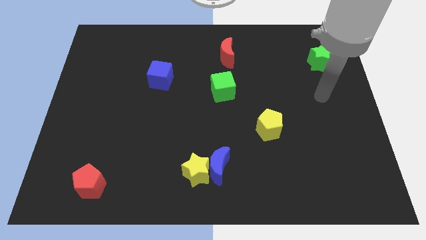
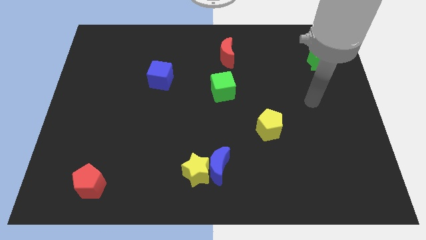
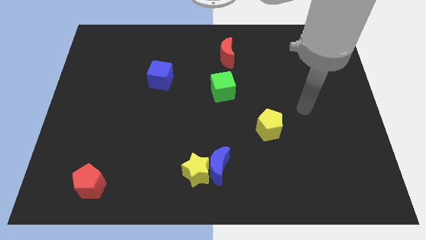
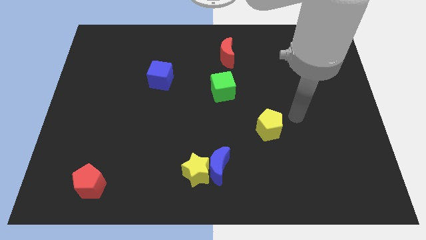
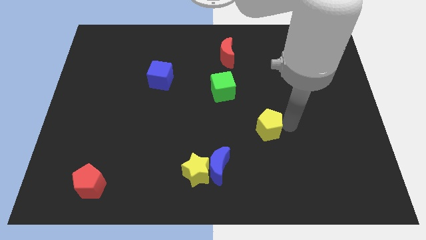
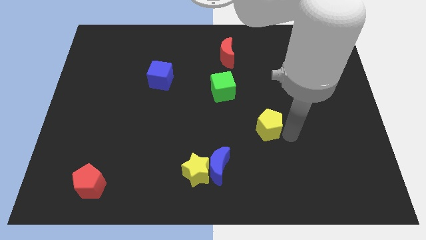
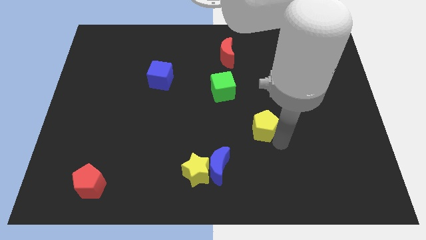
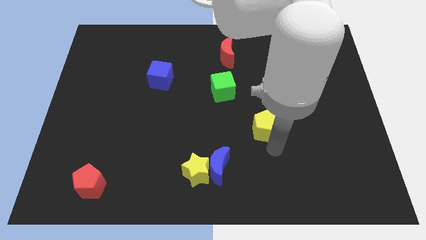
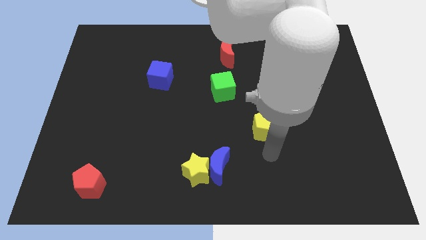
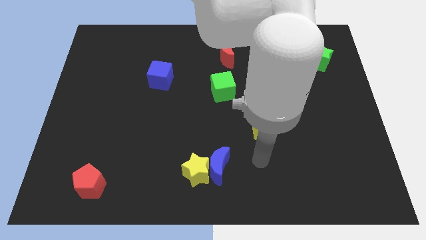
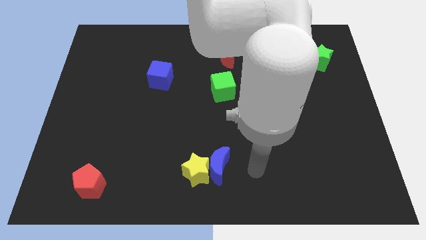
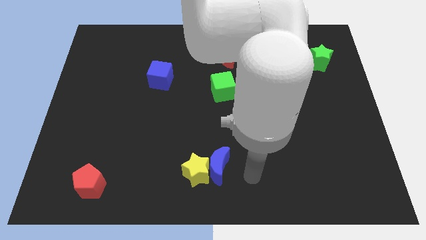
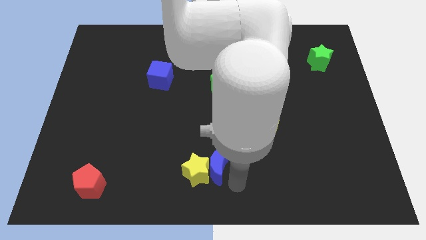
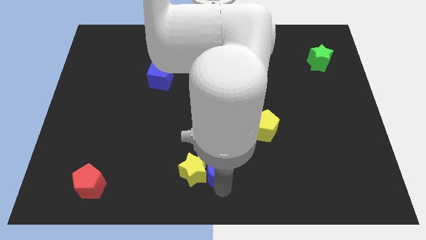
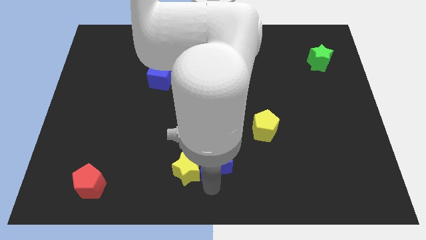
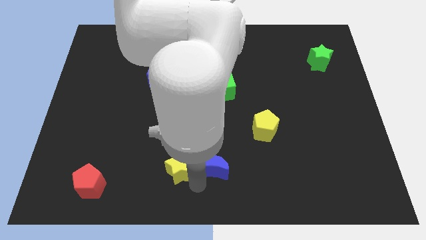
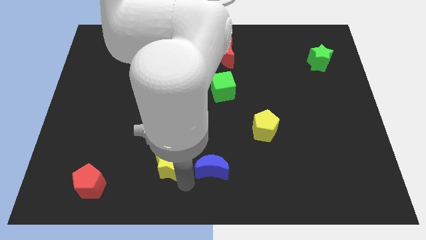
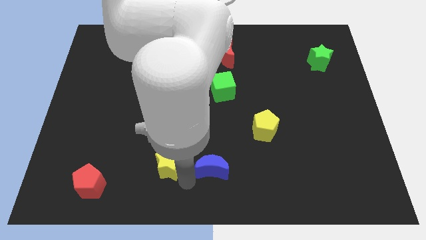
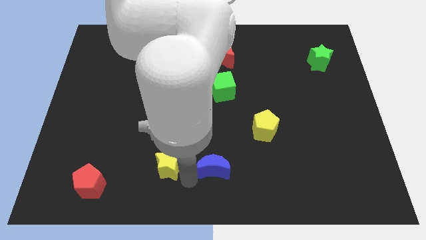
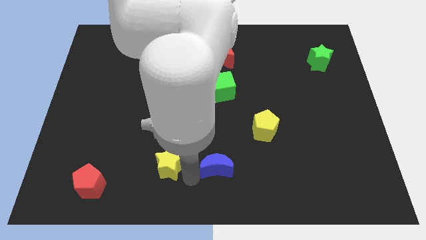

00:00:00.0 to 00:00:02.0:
pull the blue moon apart from the yellow star

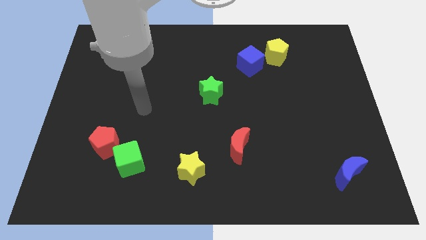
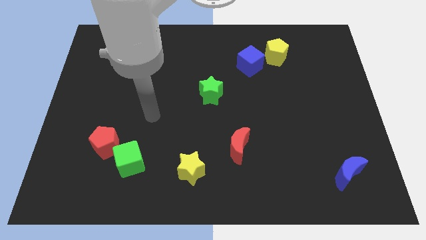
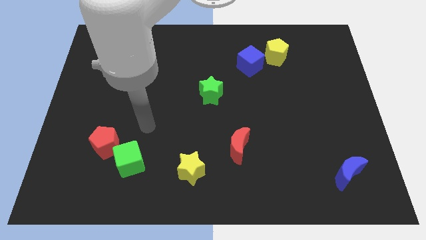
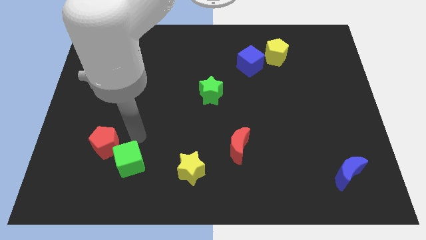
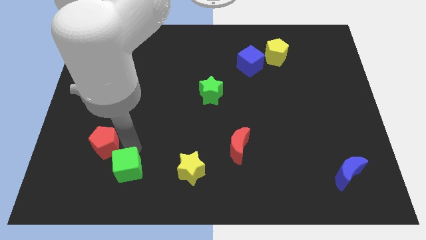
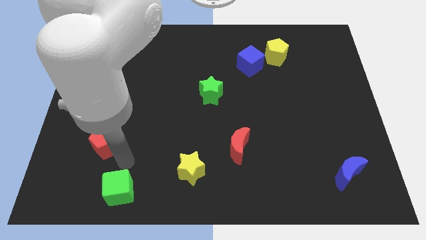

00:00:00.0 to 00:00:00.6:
separate the red pentagon from the green cube

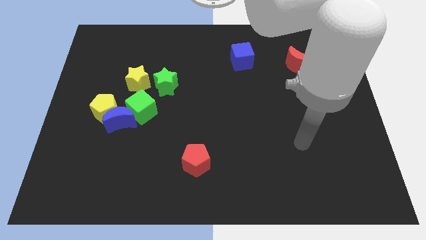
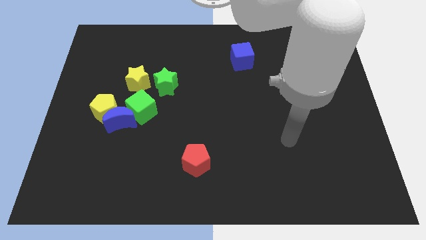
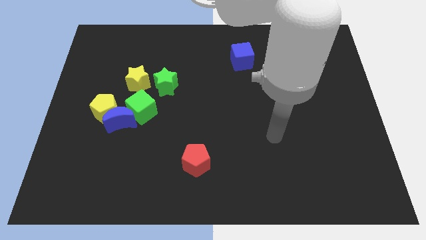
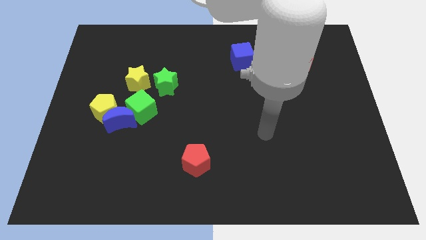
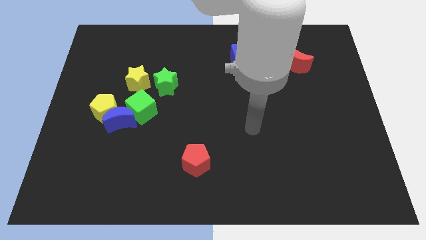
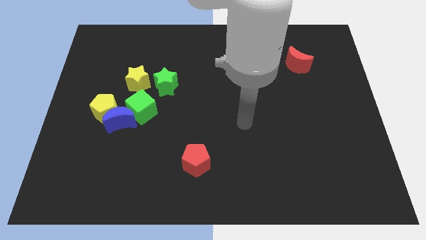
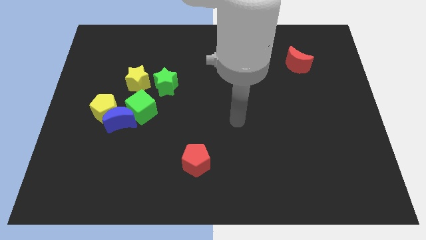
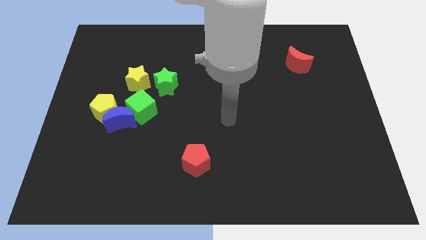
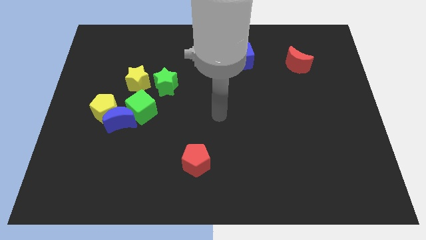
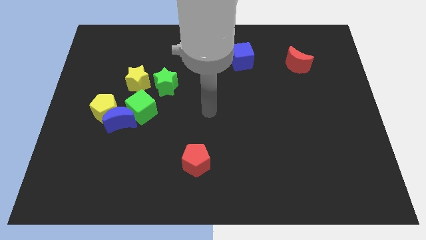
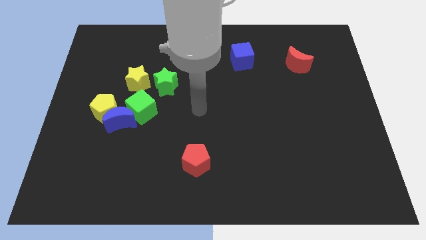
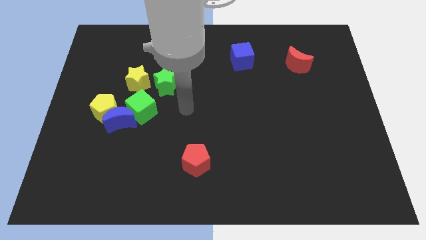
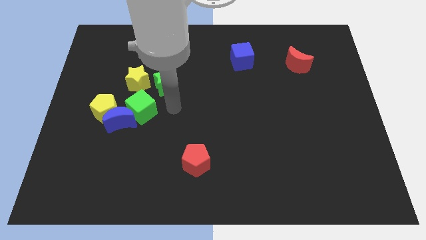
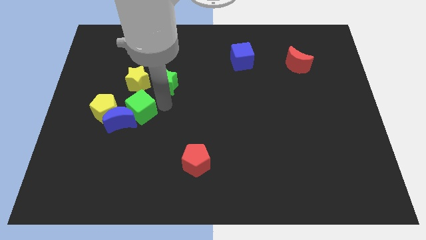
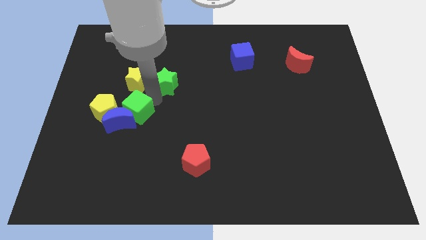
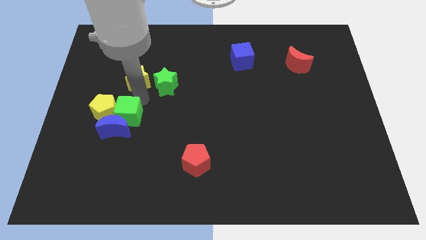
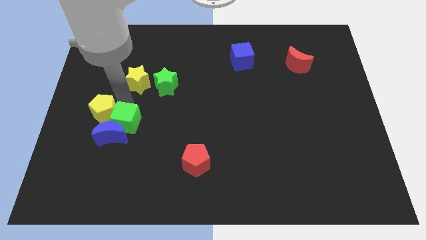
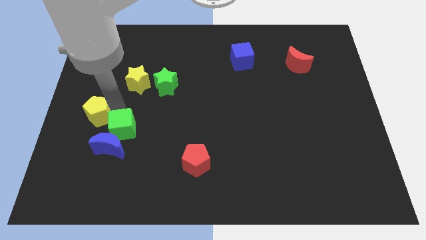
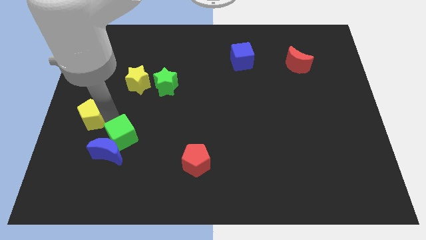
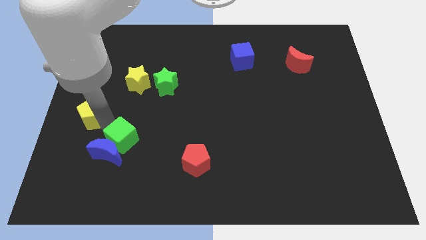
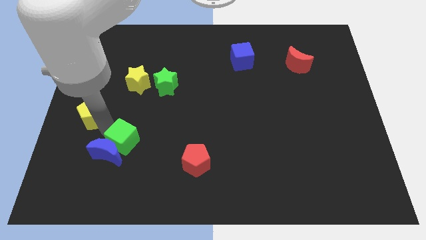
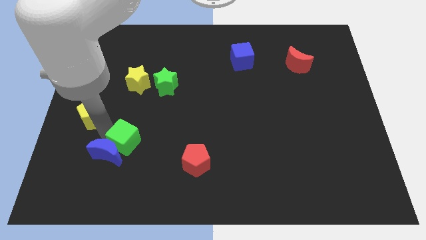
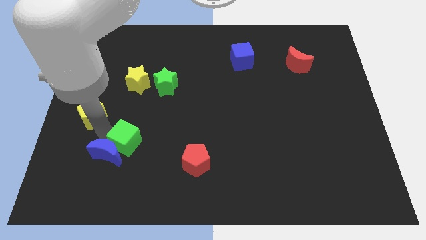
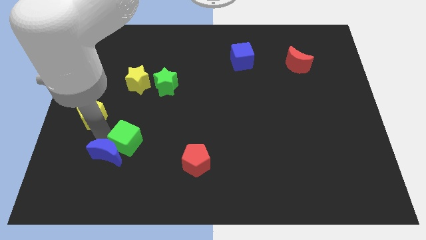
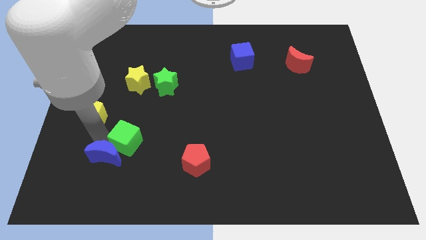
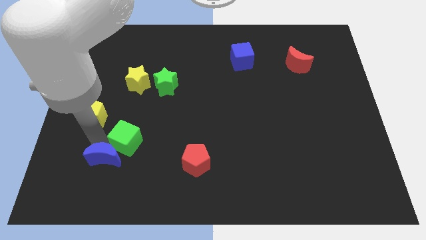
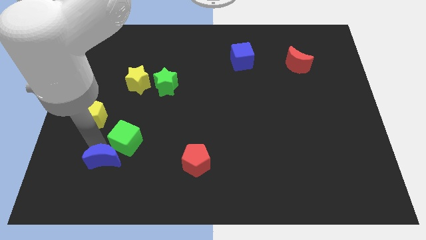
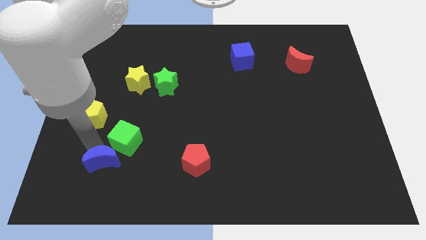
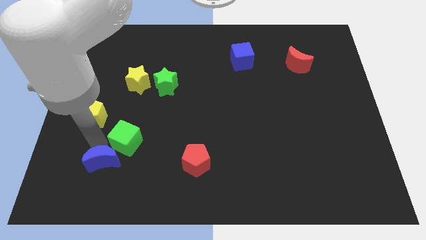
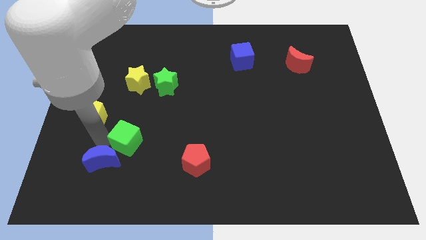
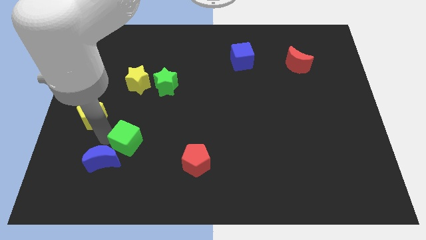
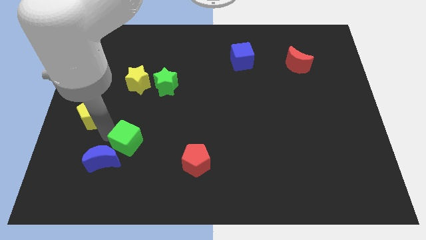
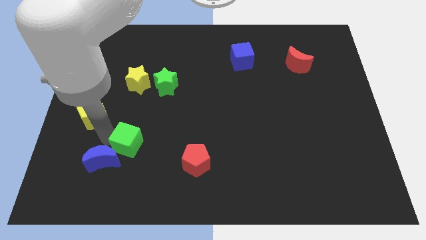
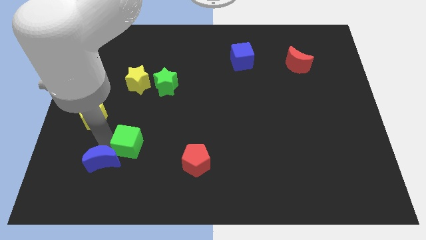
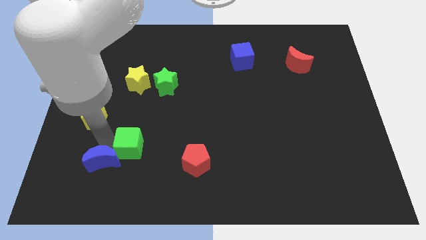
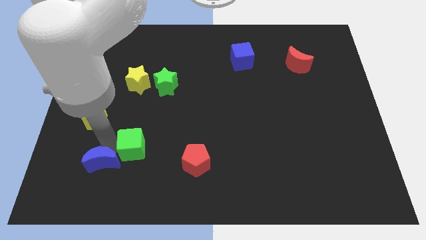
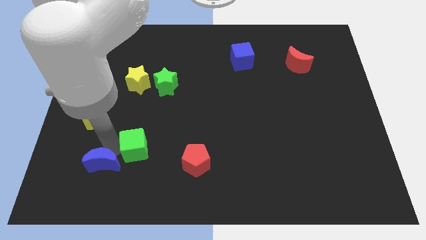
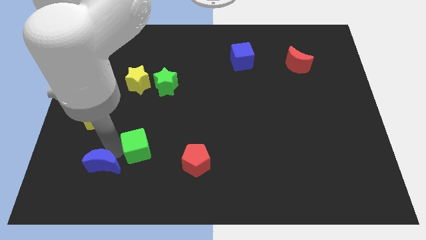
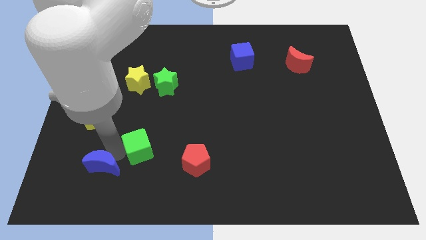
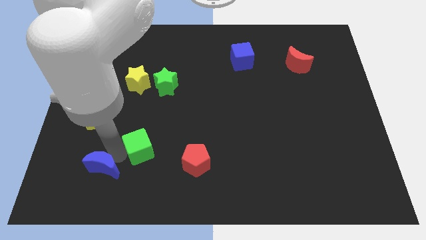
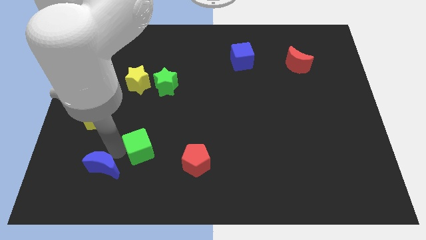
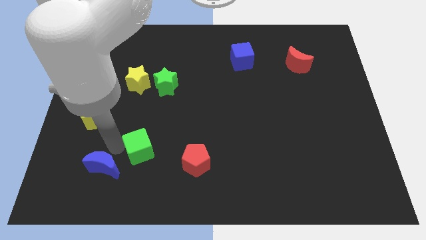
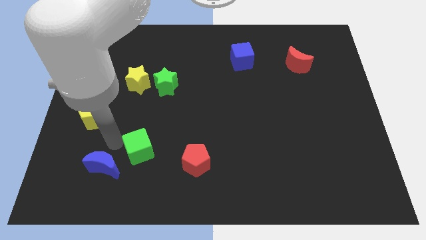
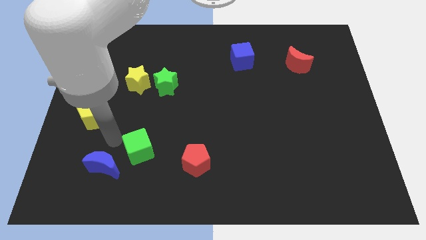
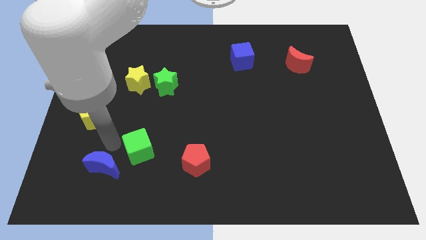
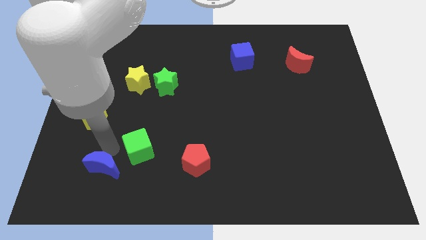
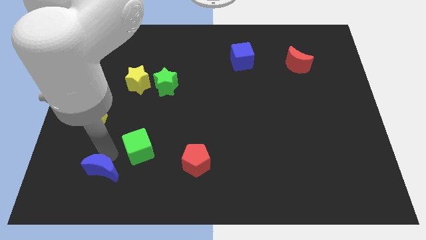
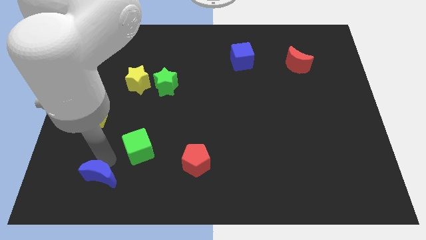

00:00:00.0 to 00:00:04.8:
separate the blue moon from the yellow pentagon and green cube

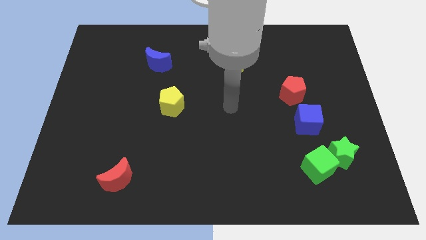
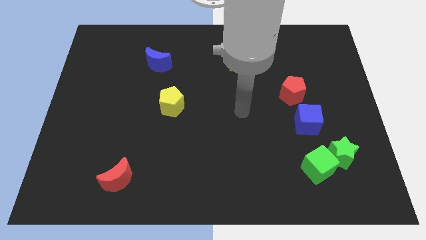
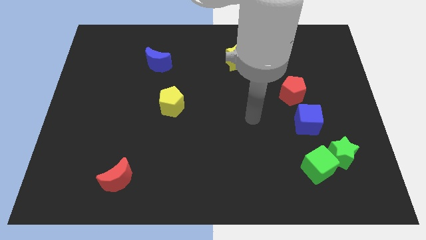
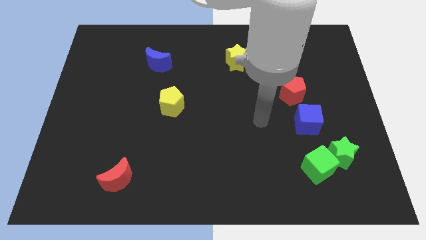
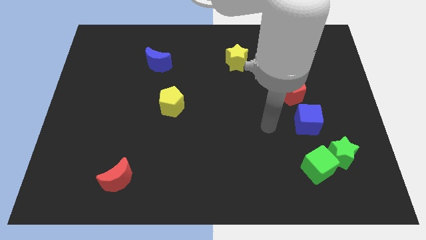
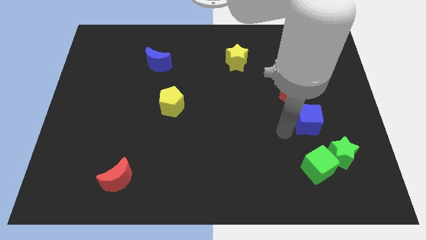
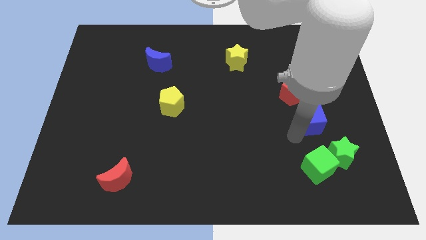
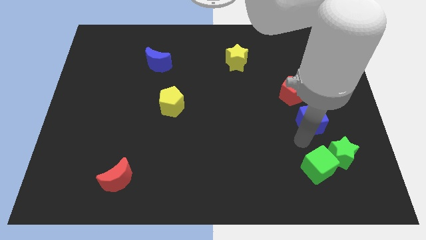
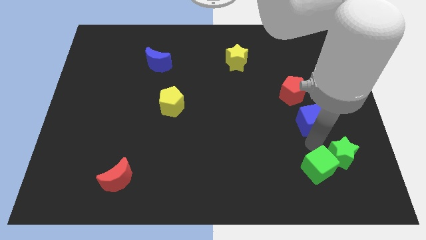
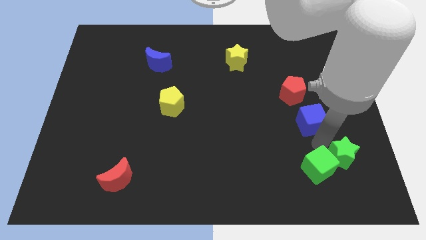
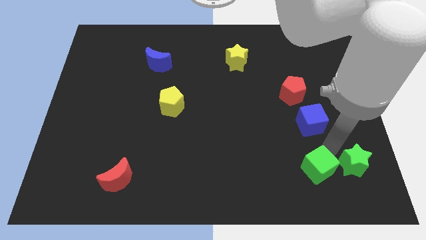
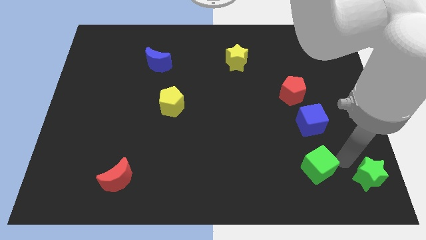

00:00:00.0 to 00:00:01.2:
move the green cube away from the green star

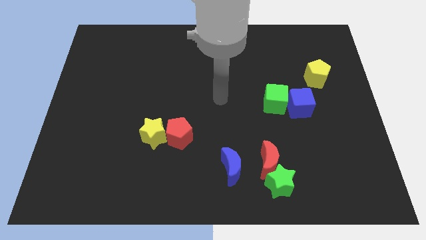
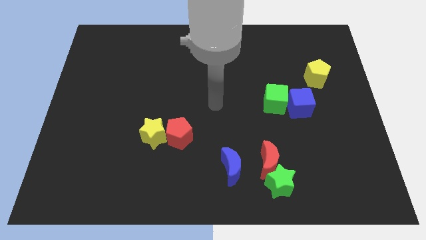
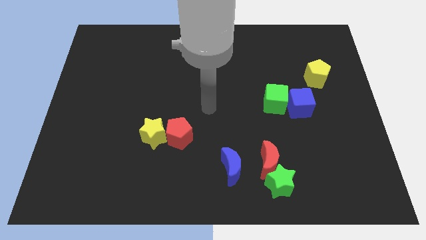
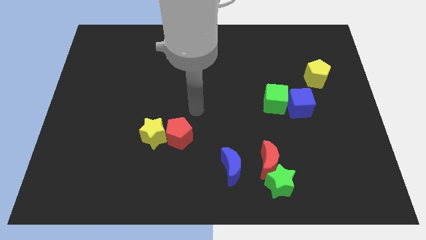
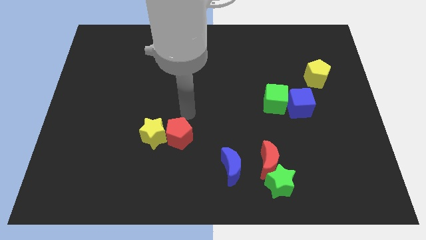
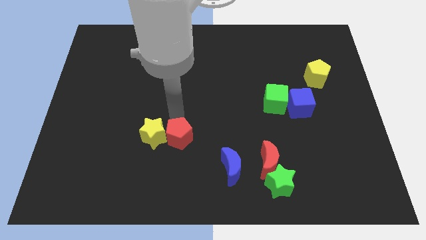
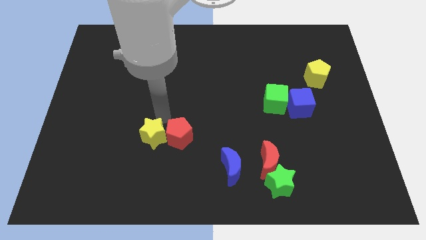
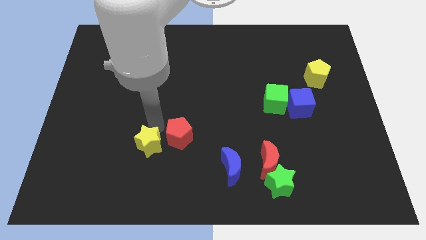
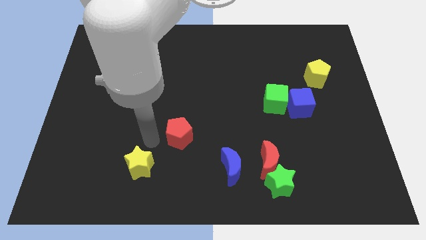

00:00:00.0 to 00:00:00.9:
pull the red pentagon apart from the yellow star
